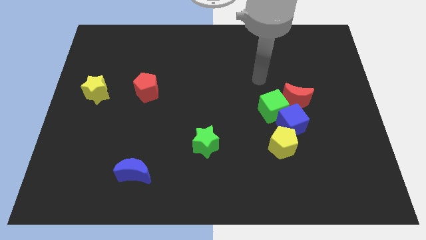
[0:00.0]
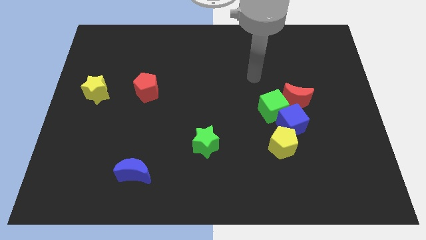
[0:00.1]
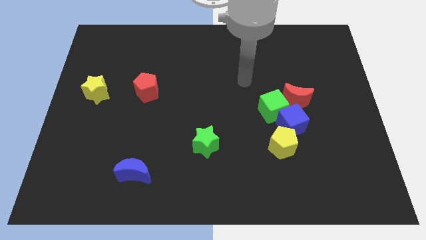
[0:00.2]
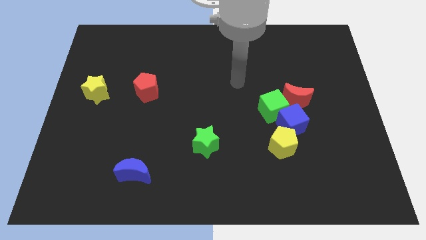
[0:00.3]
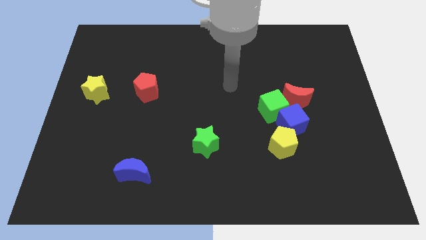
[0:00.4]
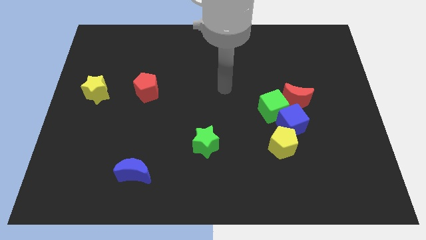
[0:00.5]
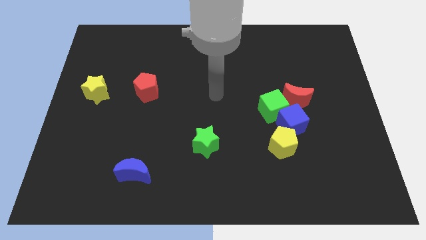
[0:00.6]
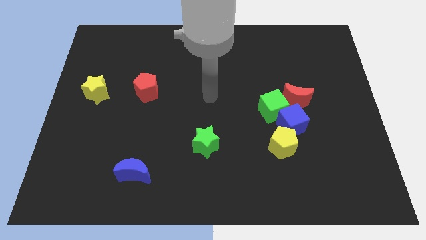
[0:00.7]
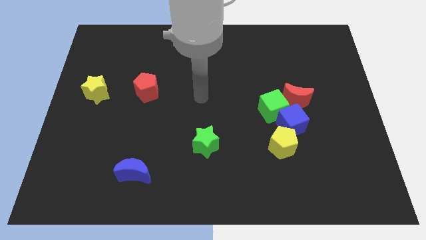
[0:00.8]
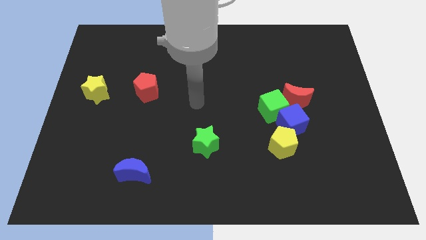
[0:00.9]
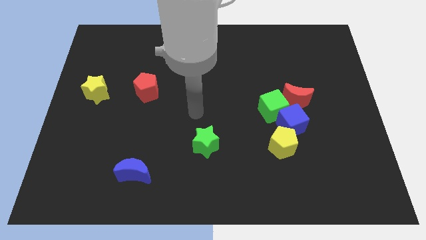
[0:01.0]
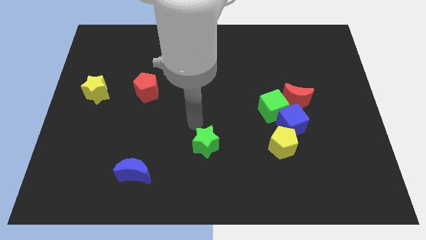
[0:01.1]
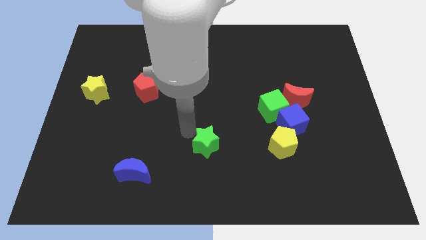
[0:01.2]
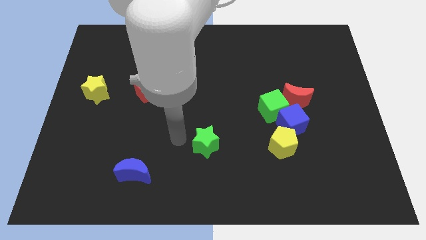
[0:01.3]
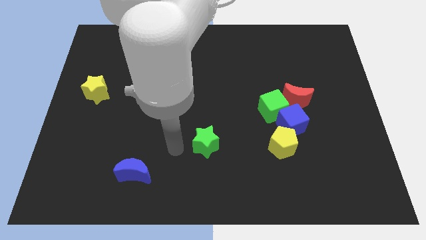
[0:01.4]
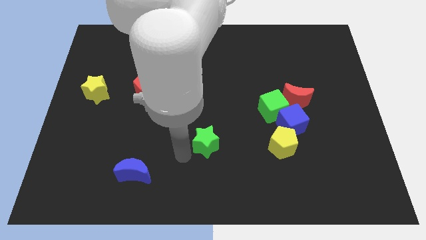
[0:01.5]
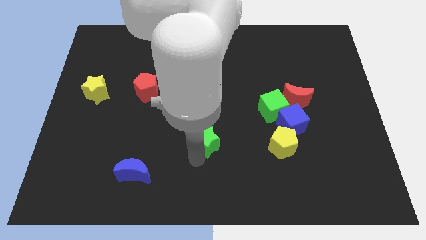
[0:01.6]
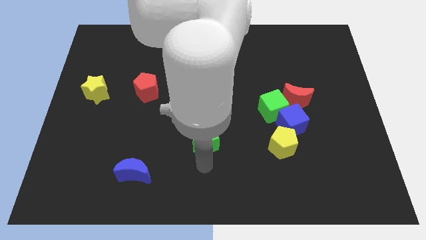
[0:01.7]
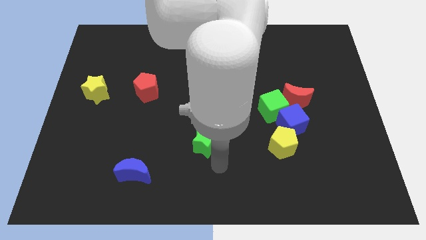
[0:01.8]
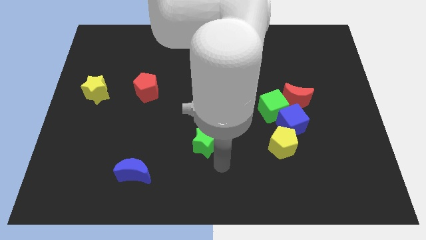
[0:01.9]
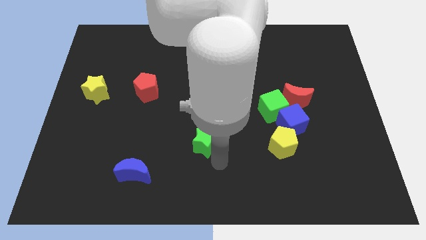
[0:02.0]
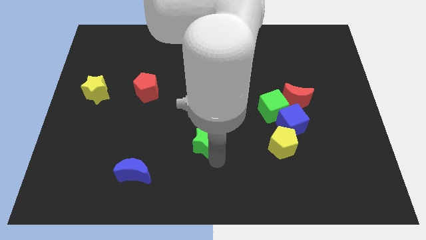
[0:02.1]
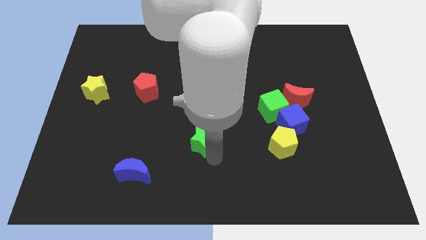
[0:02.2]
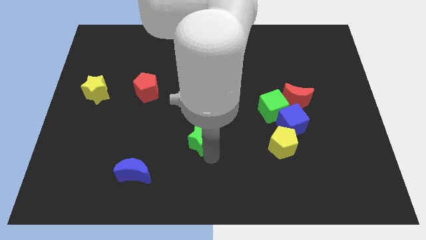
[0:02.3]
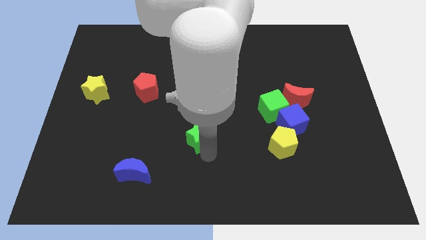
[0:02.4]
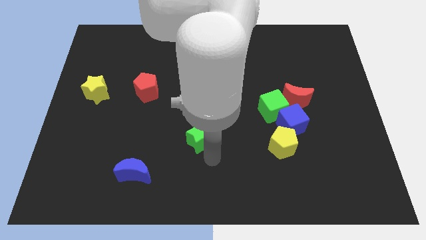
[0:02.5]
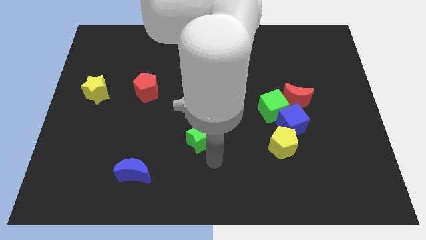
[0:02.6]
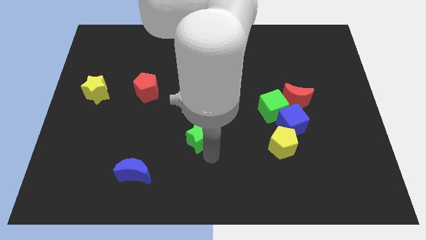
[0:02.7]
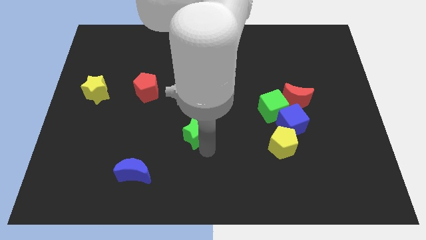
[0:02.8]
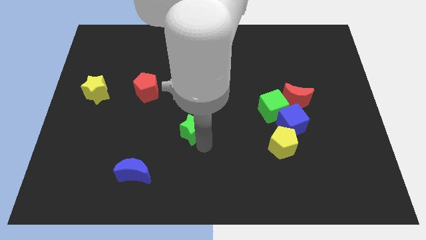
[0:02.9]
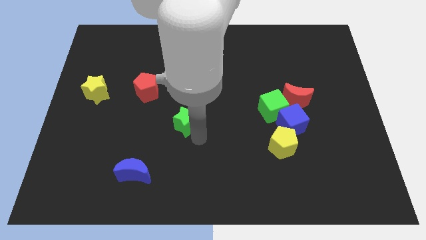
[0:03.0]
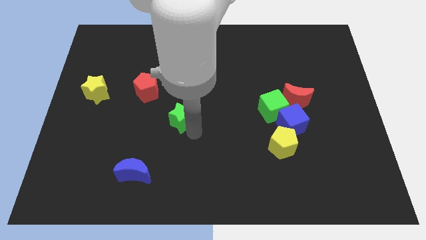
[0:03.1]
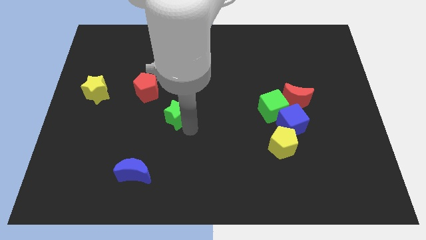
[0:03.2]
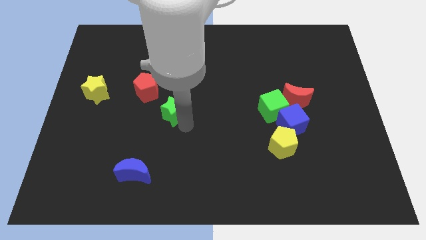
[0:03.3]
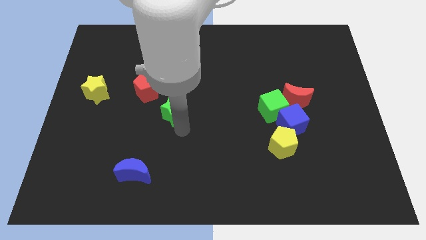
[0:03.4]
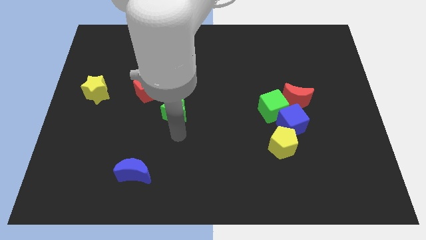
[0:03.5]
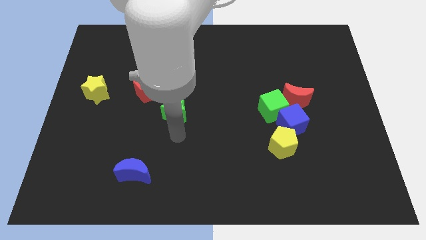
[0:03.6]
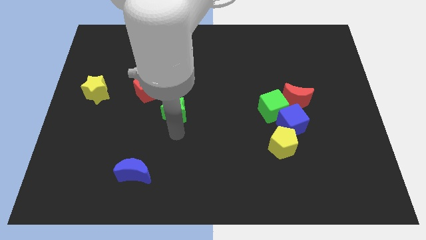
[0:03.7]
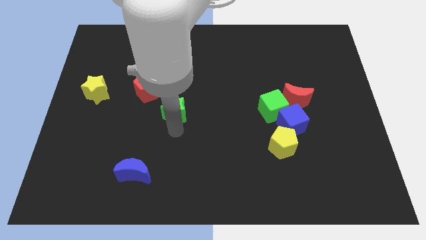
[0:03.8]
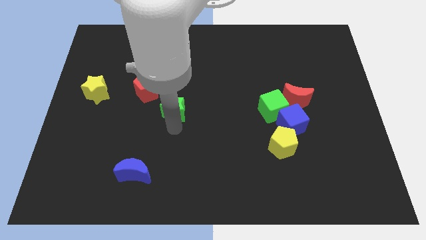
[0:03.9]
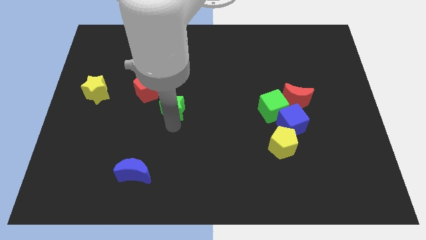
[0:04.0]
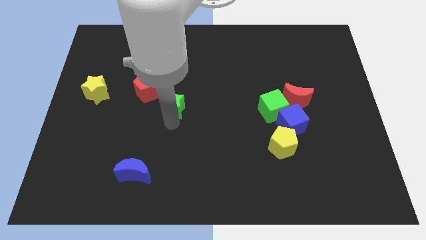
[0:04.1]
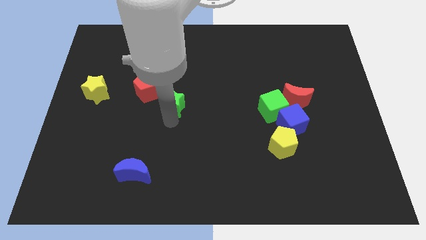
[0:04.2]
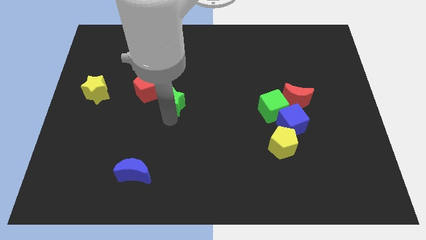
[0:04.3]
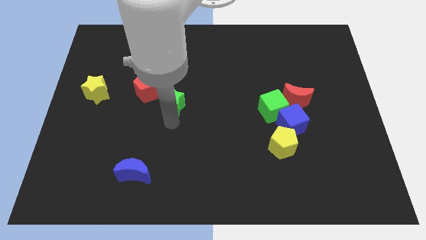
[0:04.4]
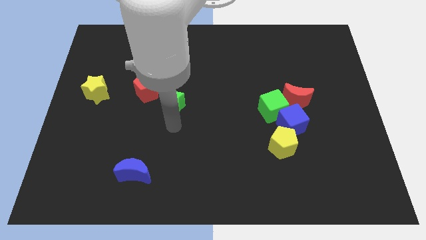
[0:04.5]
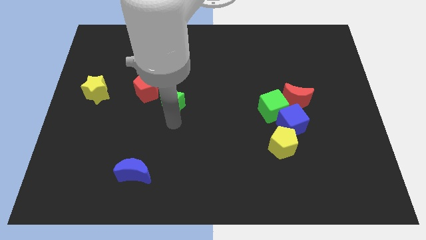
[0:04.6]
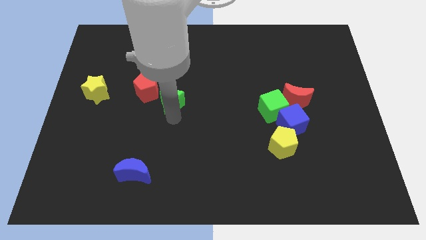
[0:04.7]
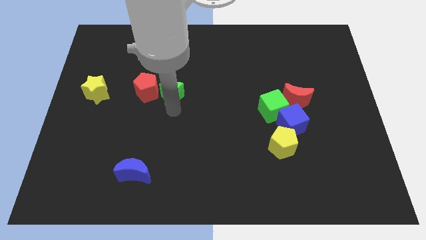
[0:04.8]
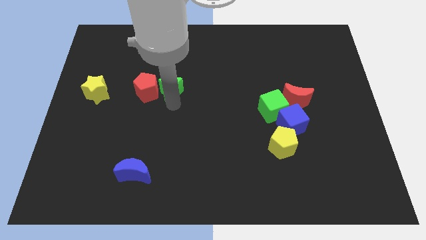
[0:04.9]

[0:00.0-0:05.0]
push the green star diagonally up and to the right of the red pentagon

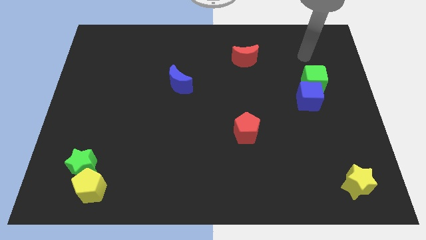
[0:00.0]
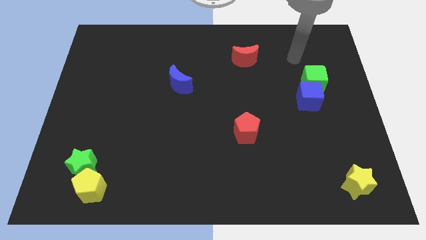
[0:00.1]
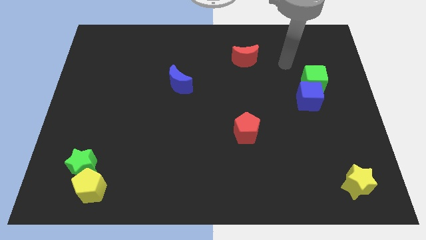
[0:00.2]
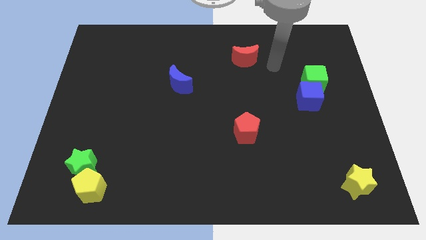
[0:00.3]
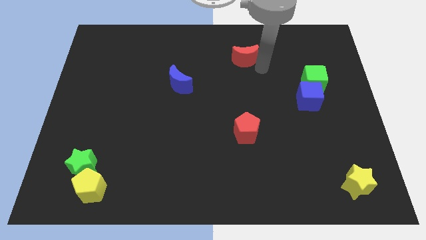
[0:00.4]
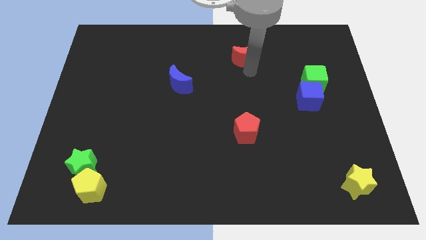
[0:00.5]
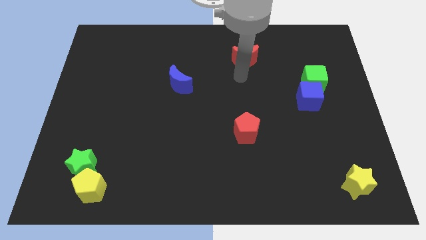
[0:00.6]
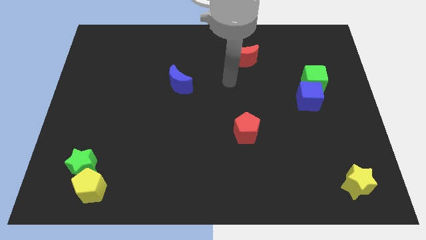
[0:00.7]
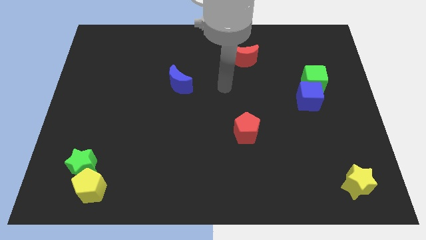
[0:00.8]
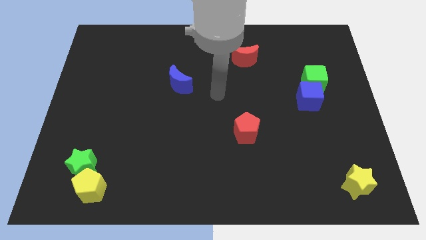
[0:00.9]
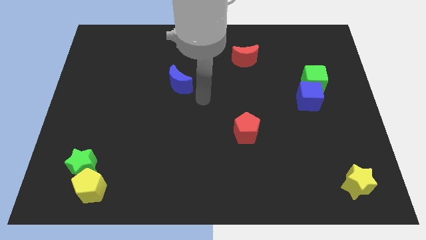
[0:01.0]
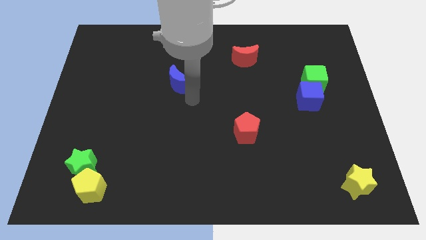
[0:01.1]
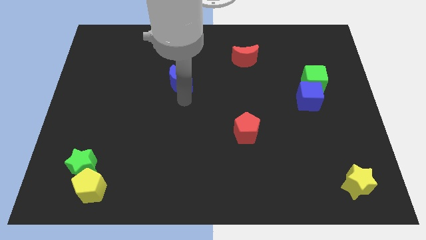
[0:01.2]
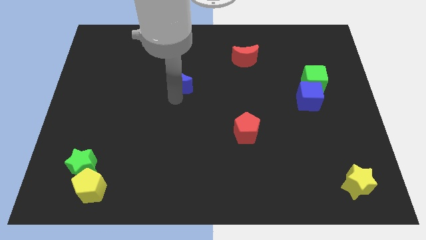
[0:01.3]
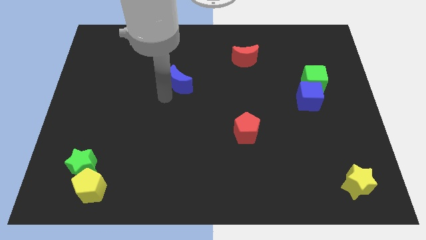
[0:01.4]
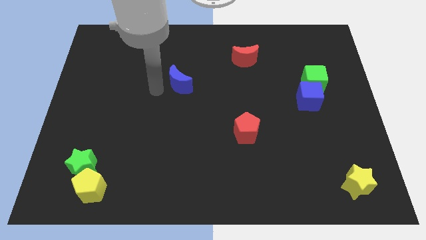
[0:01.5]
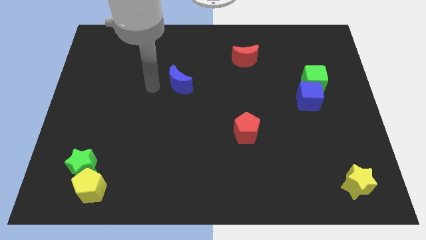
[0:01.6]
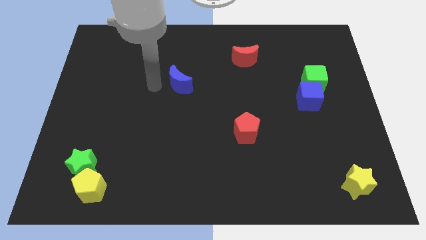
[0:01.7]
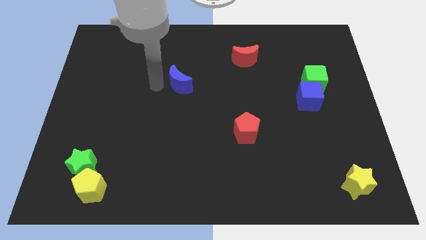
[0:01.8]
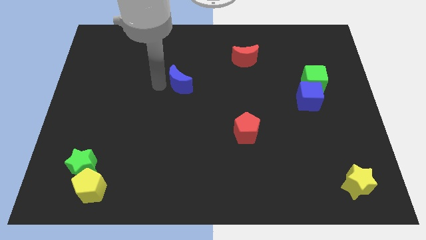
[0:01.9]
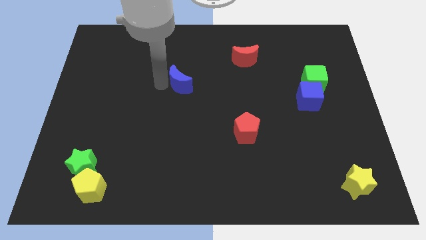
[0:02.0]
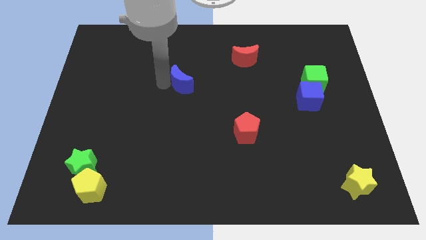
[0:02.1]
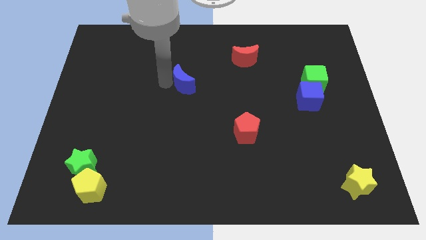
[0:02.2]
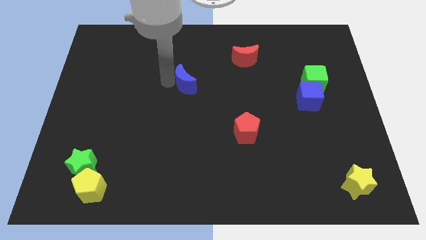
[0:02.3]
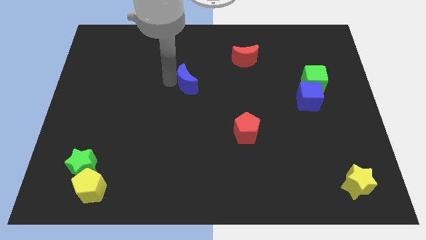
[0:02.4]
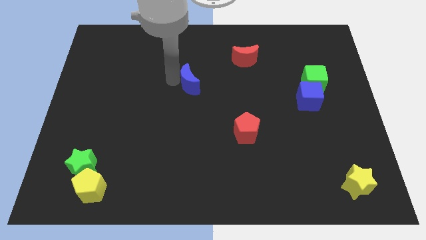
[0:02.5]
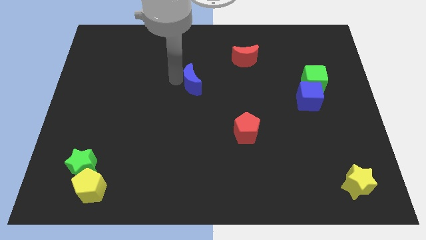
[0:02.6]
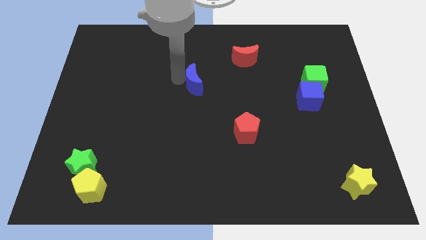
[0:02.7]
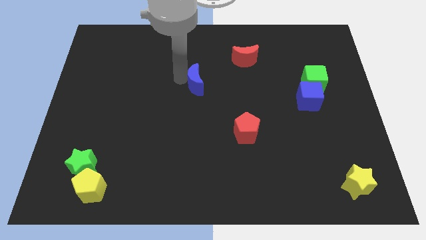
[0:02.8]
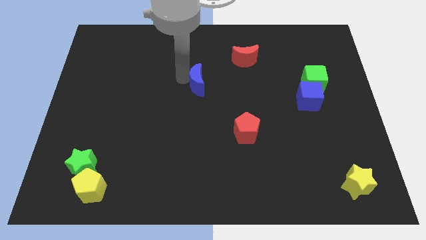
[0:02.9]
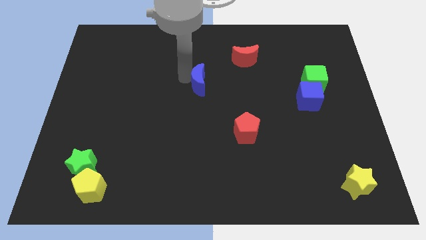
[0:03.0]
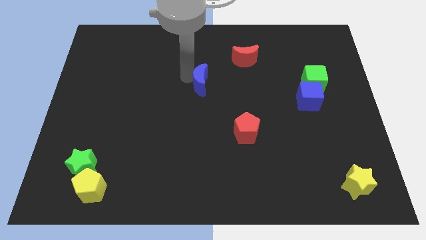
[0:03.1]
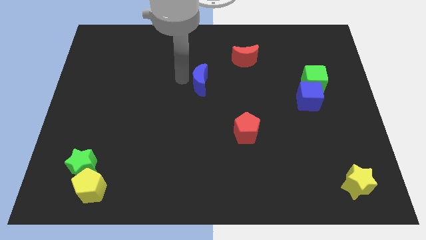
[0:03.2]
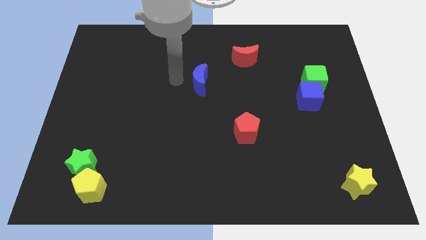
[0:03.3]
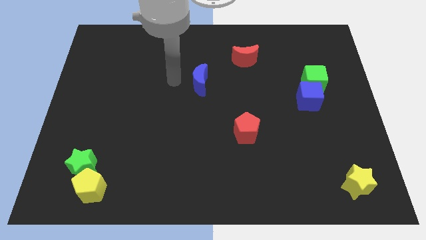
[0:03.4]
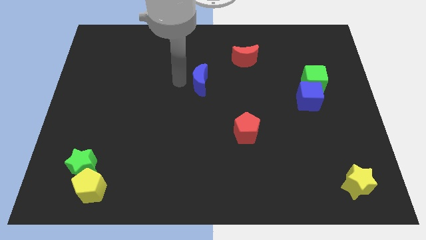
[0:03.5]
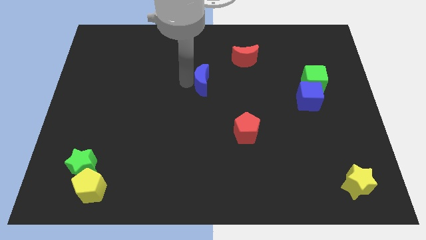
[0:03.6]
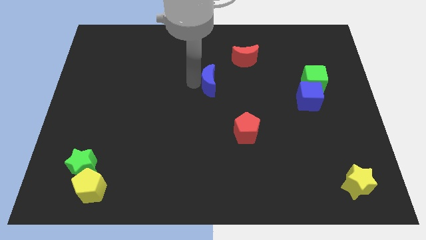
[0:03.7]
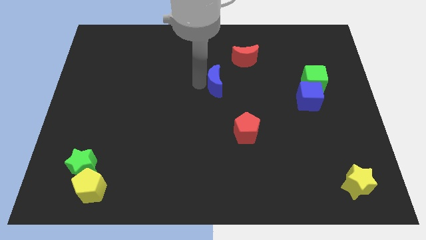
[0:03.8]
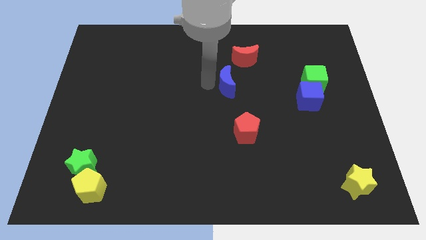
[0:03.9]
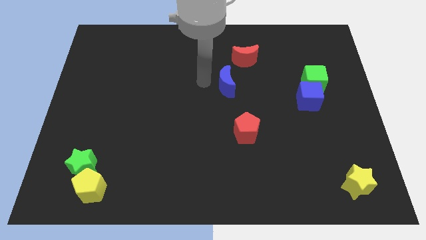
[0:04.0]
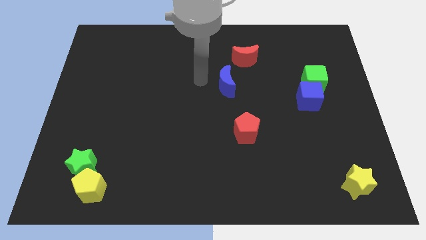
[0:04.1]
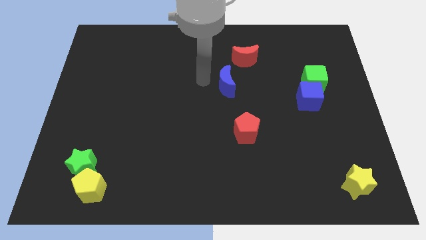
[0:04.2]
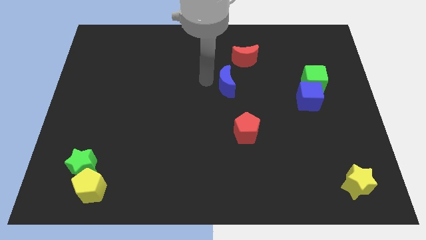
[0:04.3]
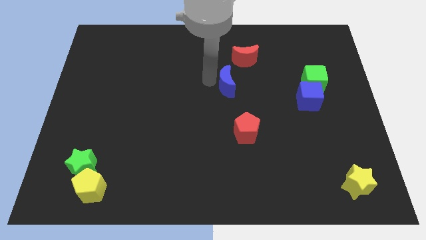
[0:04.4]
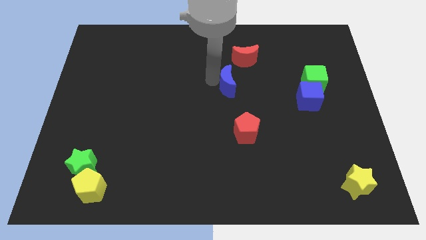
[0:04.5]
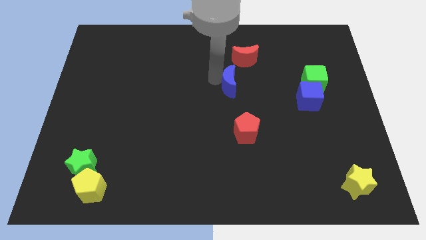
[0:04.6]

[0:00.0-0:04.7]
slide the blue moon to the bottom of the red moon
